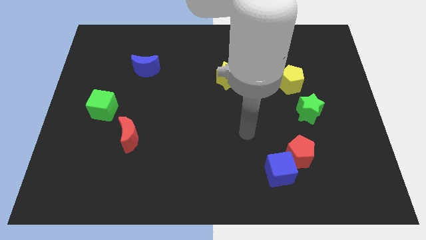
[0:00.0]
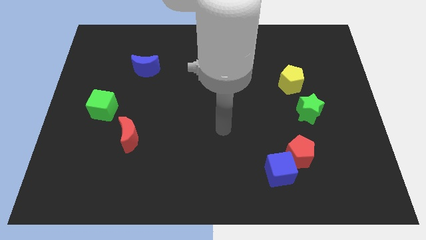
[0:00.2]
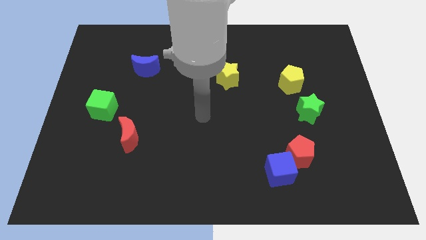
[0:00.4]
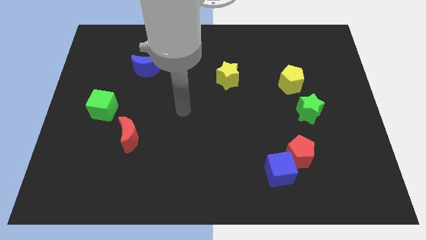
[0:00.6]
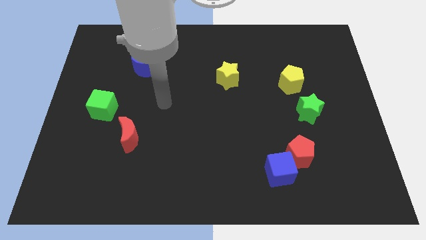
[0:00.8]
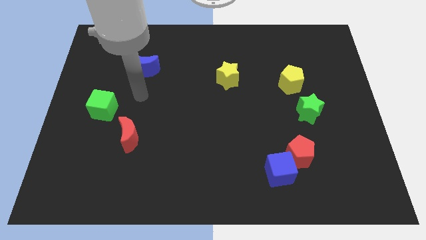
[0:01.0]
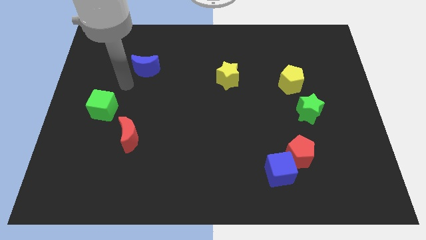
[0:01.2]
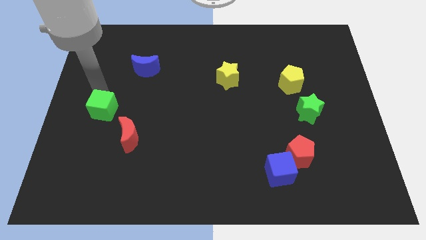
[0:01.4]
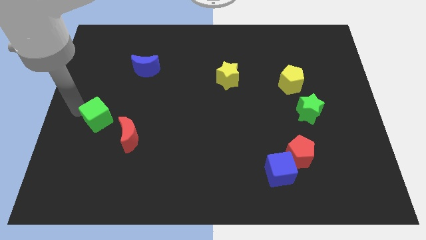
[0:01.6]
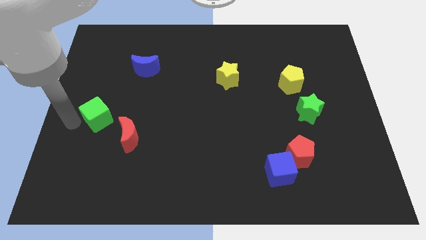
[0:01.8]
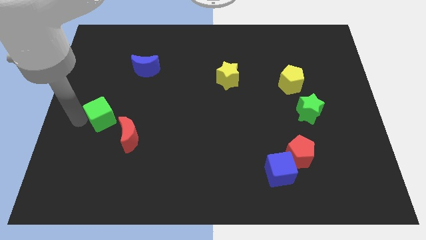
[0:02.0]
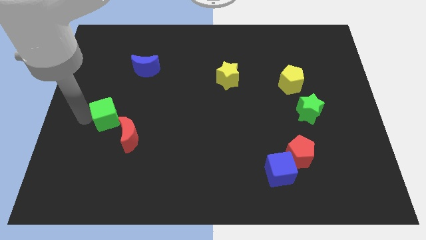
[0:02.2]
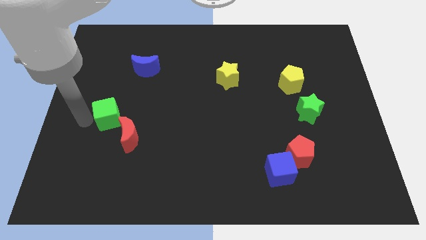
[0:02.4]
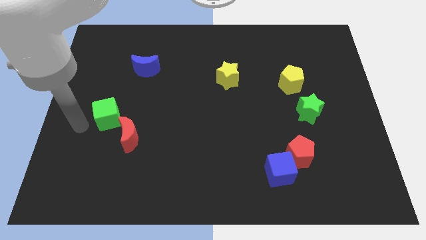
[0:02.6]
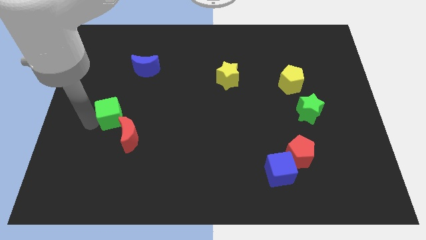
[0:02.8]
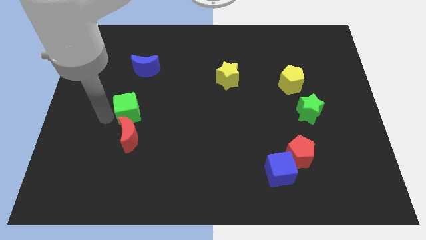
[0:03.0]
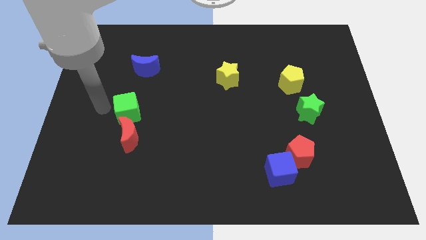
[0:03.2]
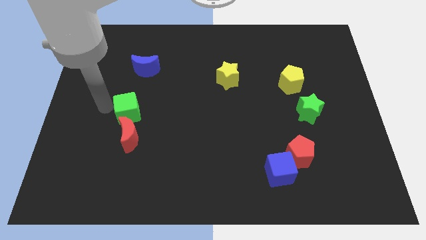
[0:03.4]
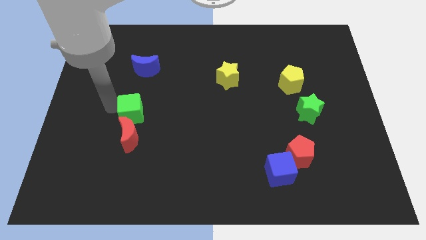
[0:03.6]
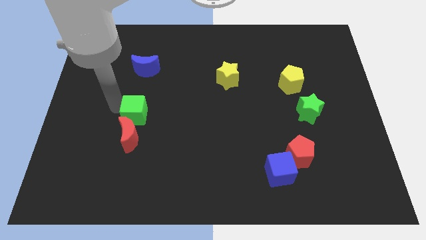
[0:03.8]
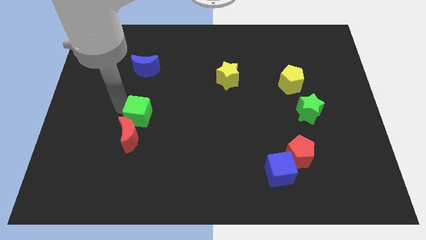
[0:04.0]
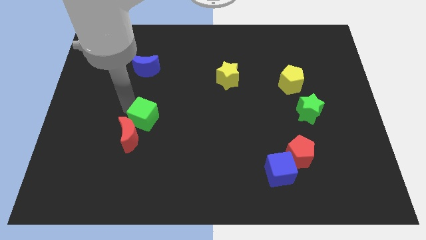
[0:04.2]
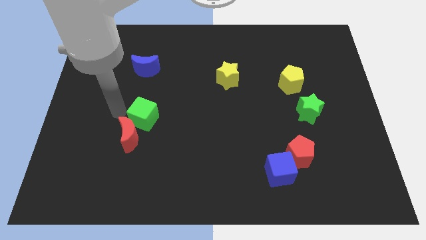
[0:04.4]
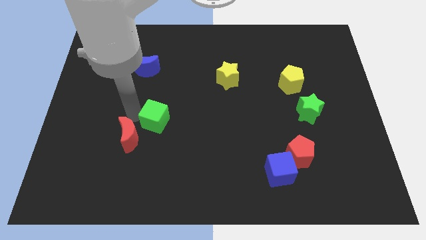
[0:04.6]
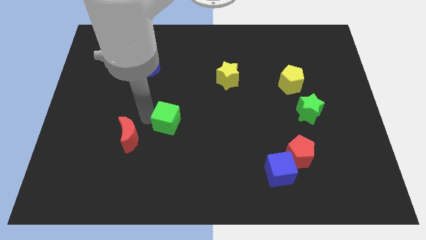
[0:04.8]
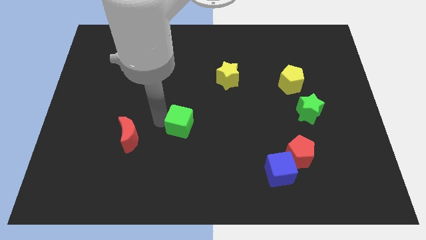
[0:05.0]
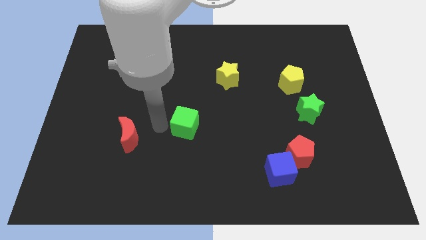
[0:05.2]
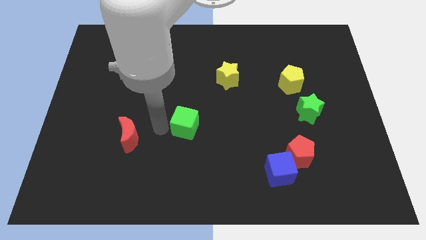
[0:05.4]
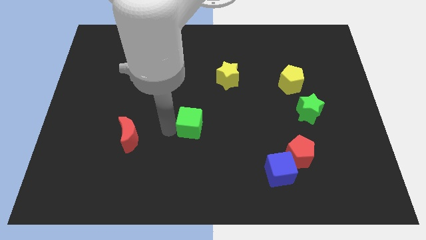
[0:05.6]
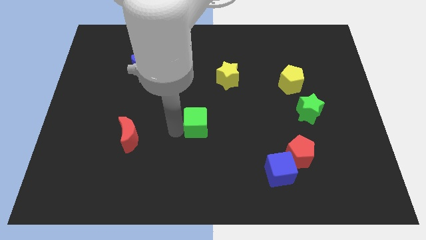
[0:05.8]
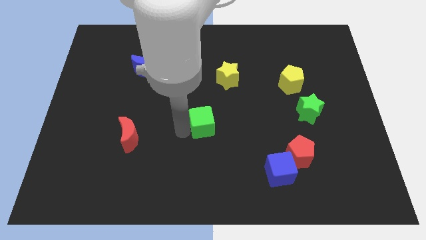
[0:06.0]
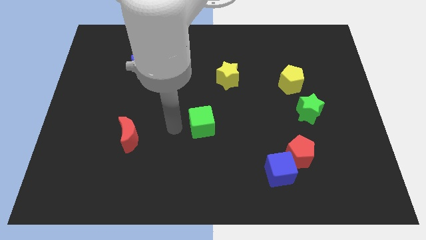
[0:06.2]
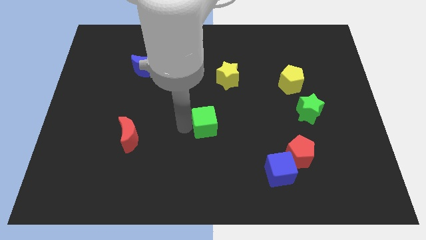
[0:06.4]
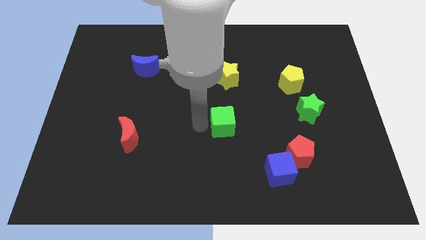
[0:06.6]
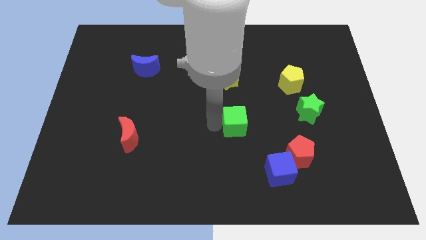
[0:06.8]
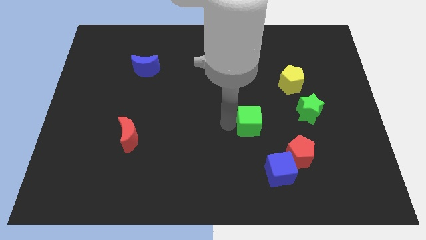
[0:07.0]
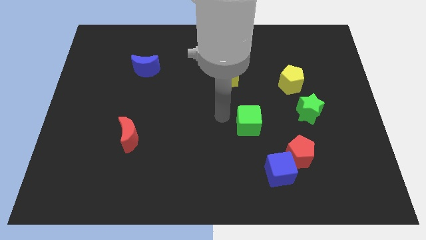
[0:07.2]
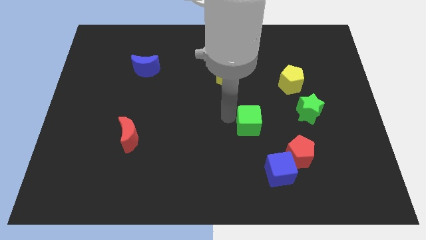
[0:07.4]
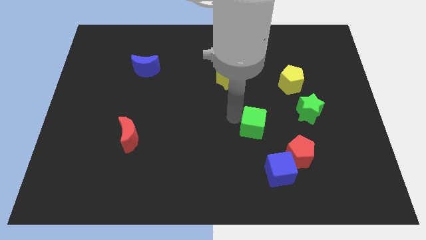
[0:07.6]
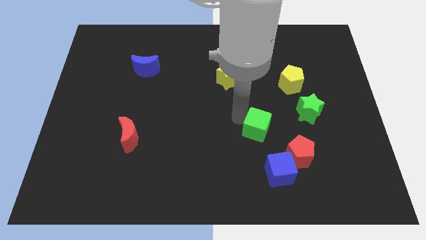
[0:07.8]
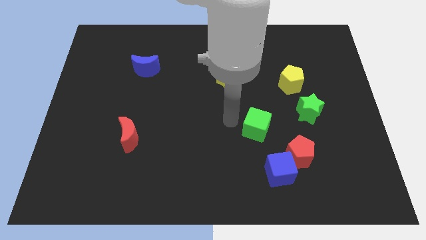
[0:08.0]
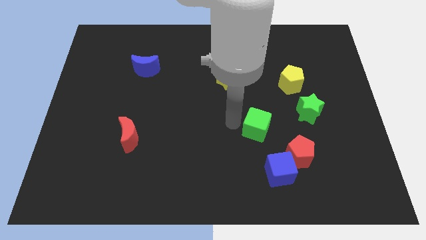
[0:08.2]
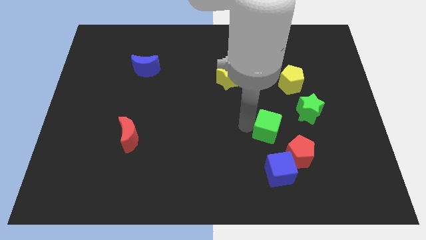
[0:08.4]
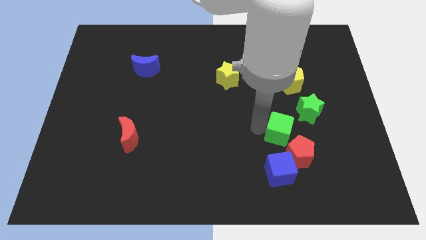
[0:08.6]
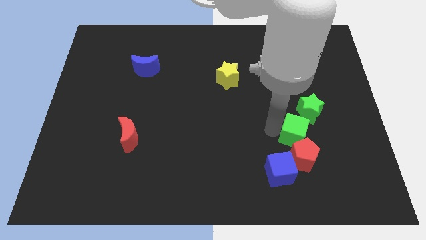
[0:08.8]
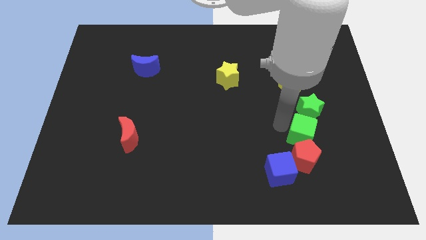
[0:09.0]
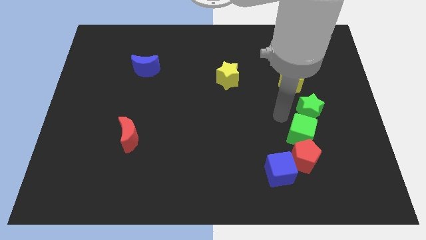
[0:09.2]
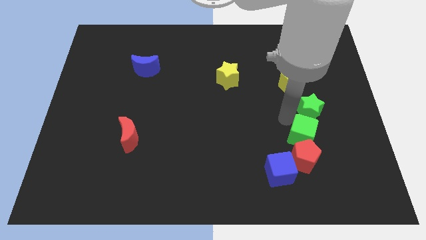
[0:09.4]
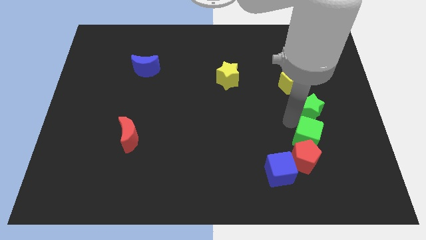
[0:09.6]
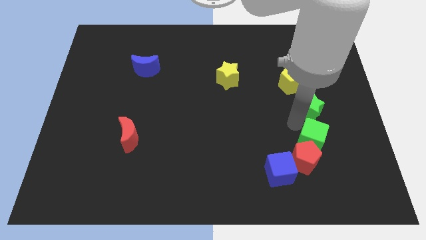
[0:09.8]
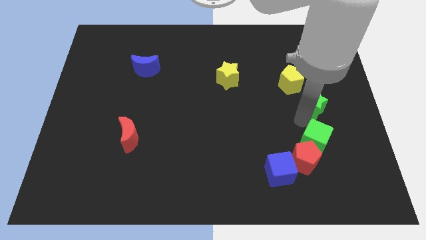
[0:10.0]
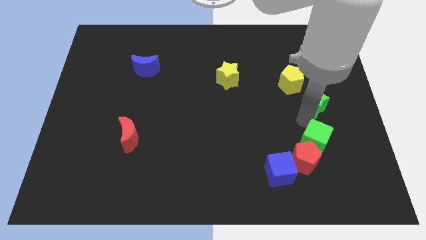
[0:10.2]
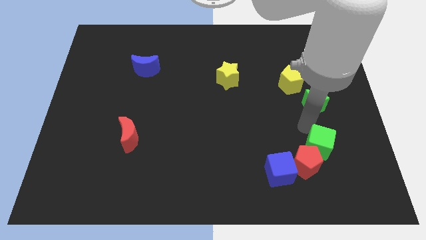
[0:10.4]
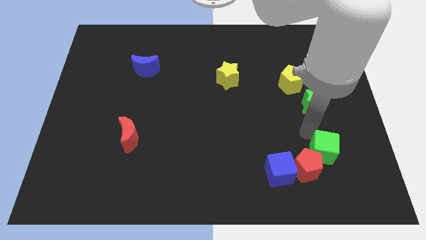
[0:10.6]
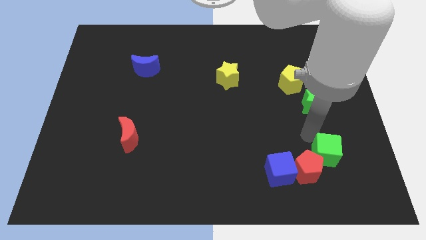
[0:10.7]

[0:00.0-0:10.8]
slide the green cube to the right side of the blue cube

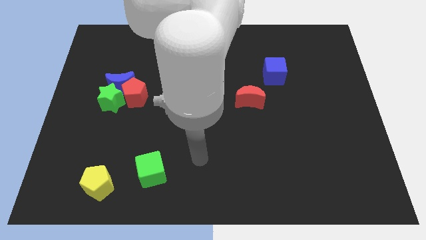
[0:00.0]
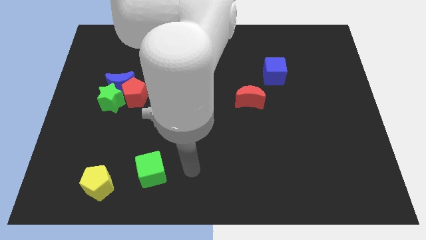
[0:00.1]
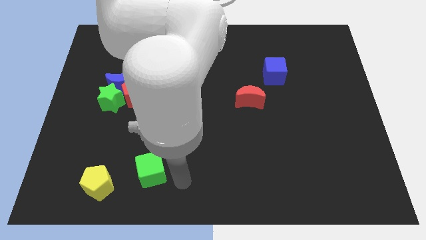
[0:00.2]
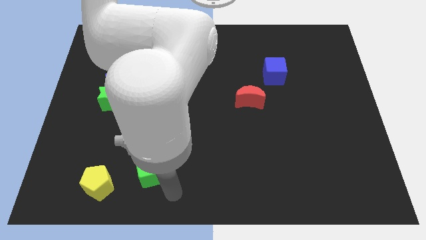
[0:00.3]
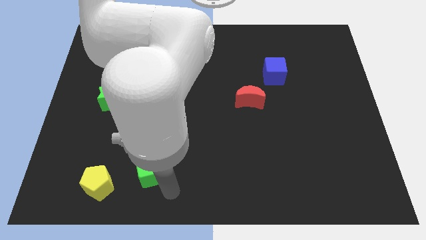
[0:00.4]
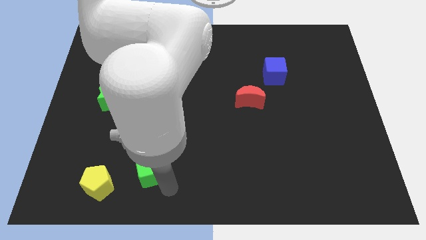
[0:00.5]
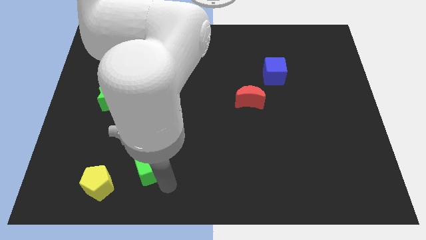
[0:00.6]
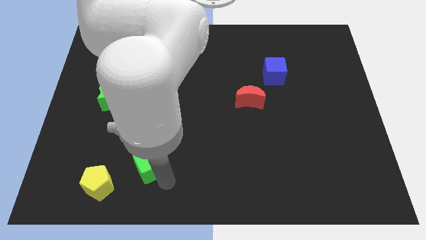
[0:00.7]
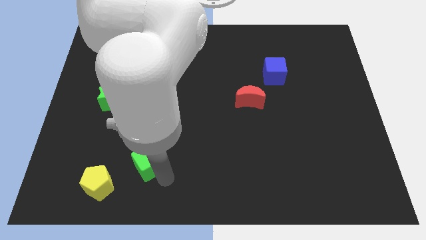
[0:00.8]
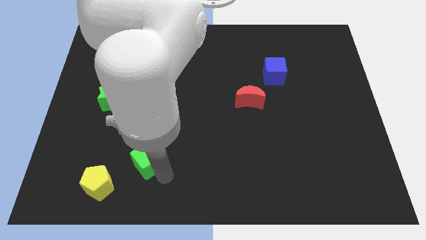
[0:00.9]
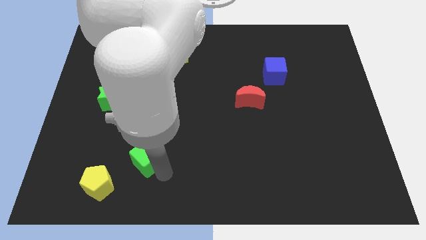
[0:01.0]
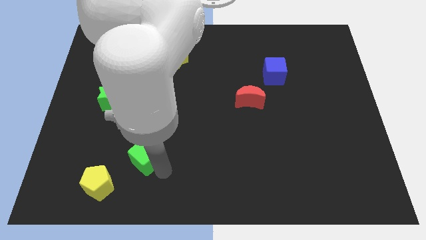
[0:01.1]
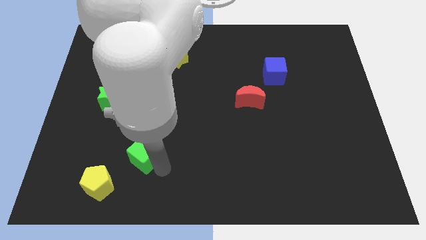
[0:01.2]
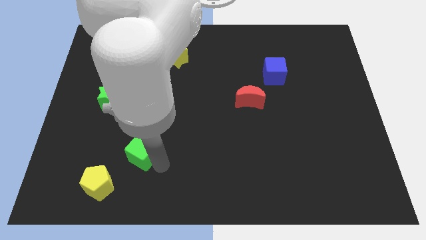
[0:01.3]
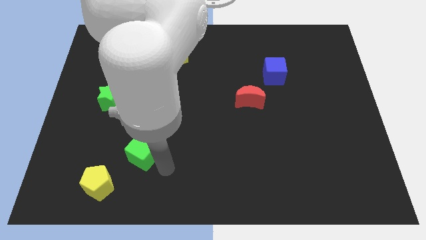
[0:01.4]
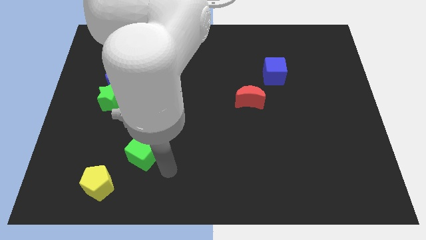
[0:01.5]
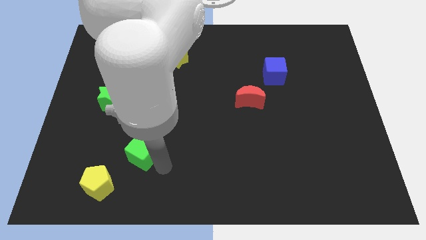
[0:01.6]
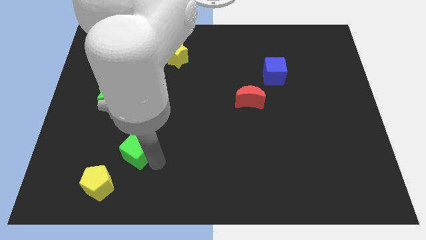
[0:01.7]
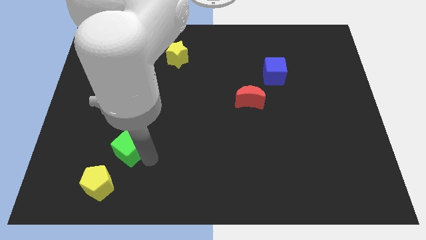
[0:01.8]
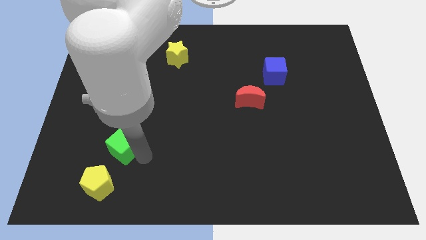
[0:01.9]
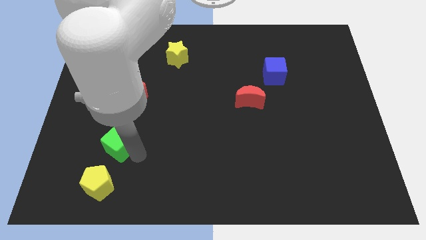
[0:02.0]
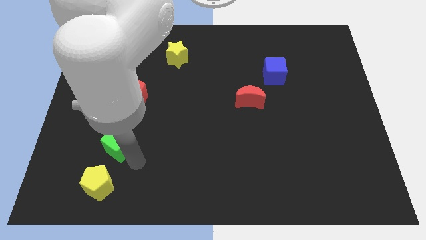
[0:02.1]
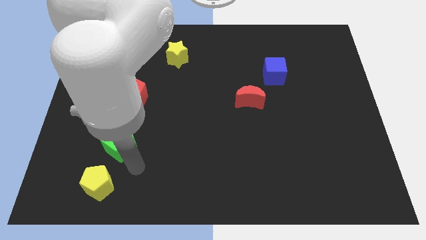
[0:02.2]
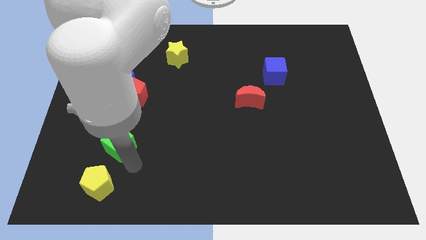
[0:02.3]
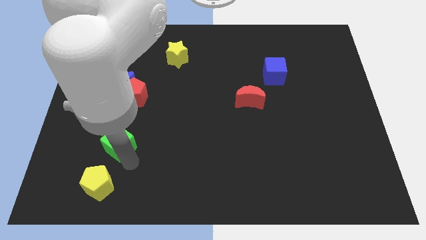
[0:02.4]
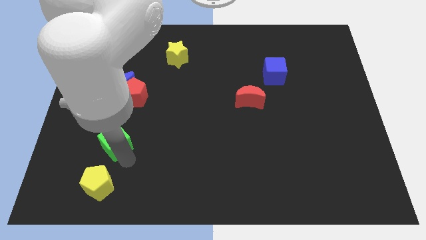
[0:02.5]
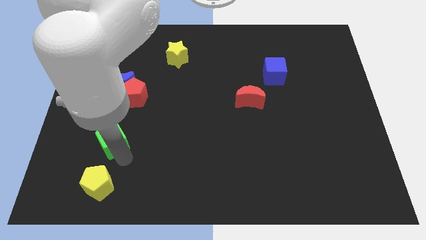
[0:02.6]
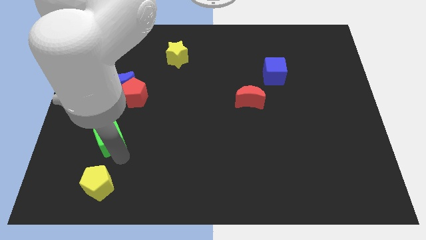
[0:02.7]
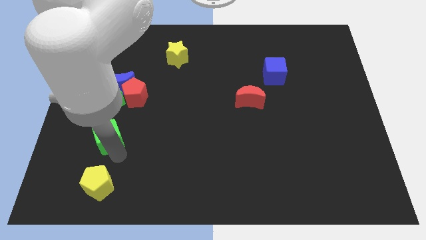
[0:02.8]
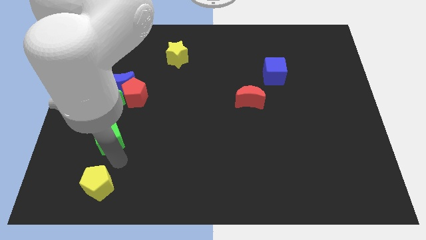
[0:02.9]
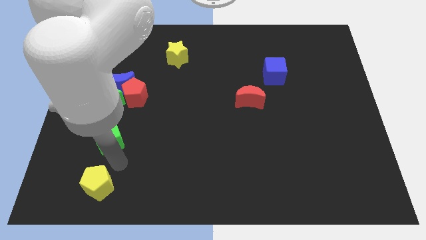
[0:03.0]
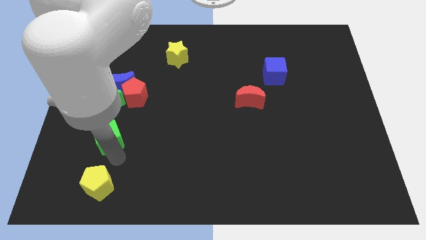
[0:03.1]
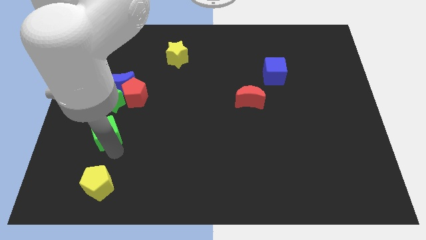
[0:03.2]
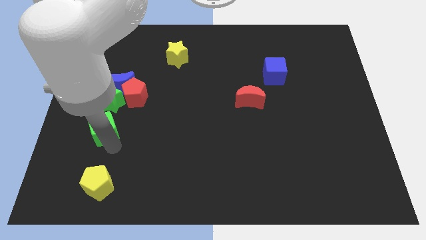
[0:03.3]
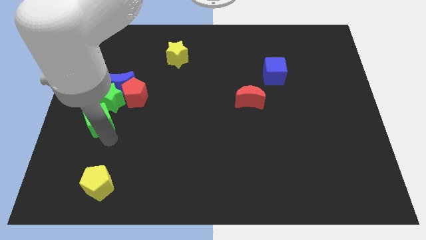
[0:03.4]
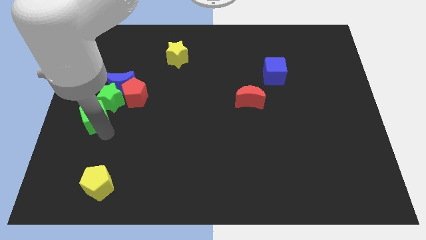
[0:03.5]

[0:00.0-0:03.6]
put the green cube diagonally down and to the left of the blue moon
